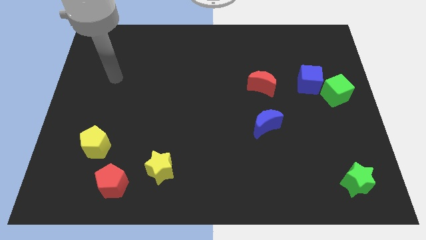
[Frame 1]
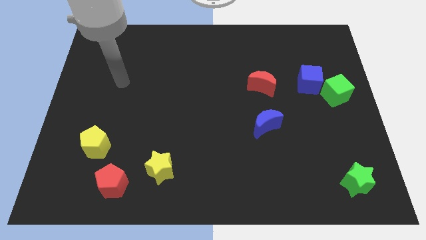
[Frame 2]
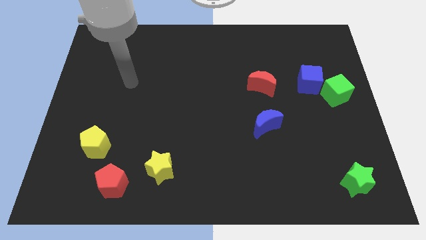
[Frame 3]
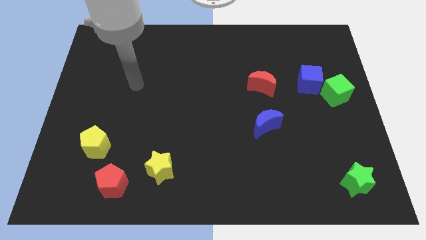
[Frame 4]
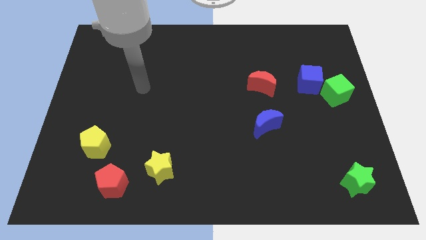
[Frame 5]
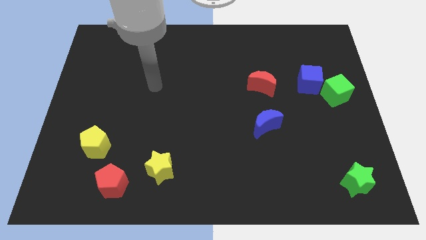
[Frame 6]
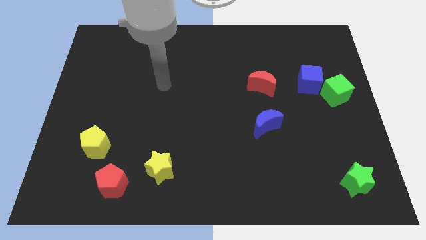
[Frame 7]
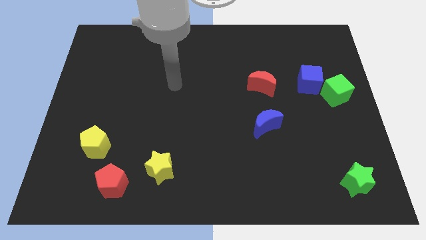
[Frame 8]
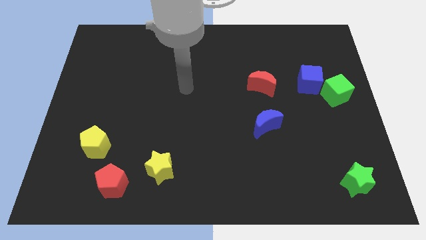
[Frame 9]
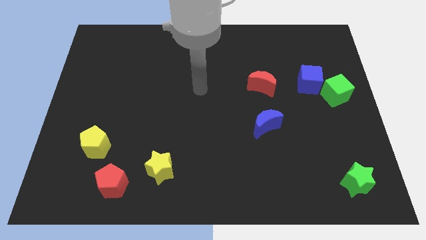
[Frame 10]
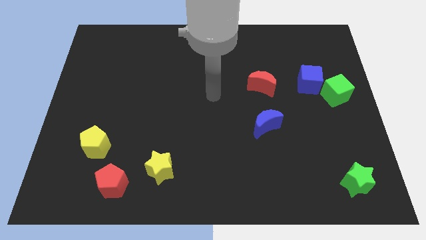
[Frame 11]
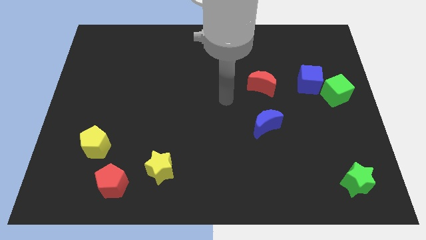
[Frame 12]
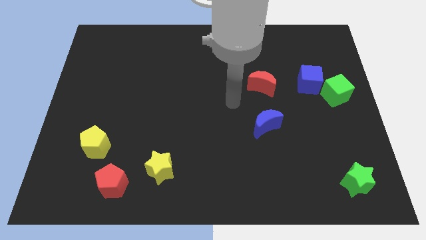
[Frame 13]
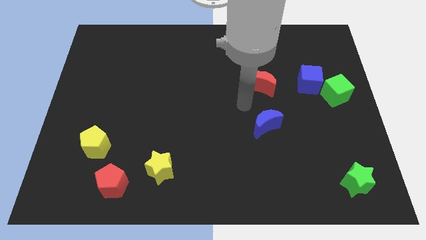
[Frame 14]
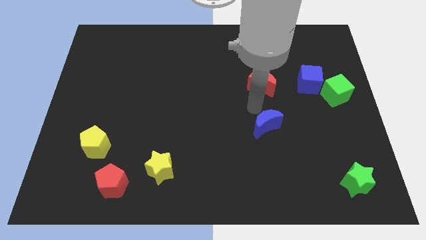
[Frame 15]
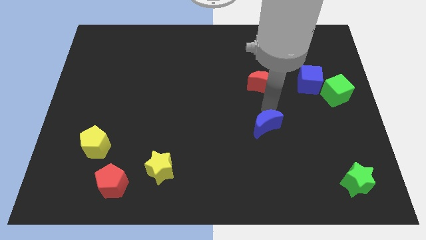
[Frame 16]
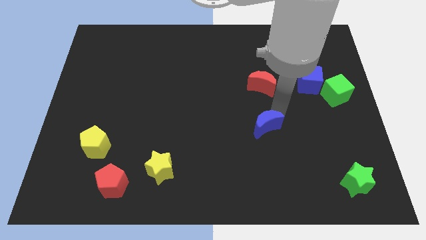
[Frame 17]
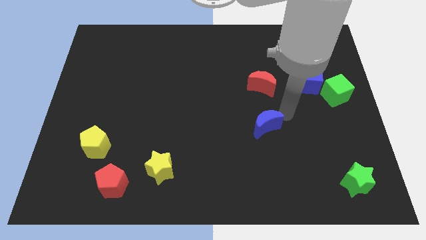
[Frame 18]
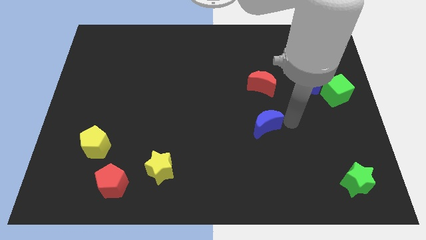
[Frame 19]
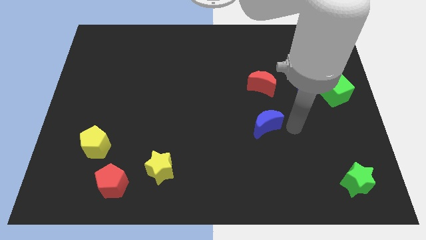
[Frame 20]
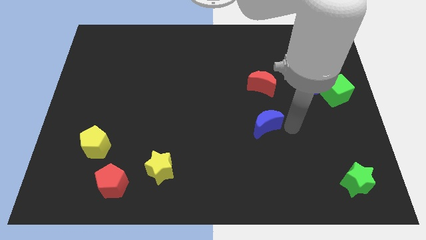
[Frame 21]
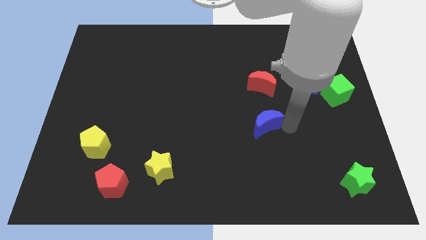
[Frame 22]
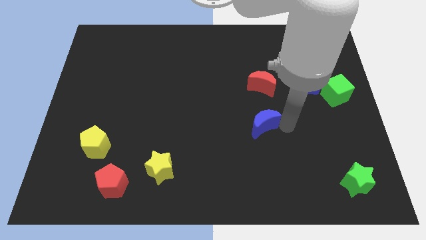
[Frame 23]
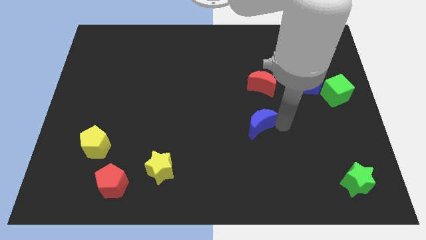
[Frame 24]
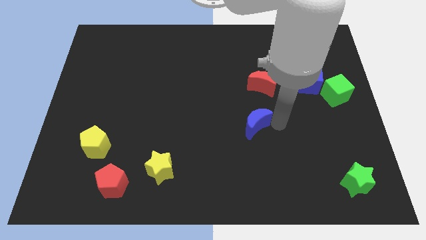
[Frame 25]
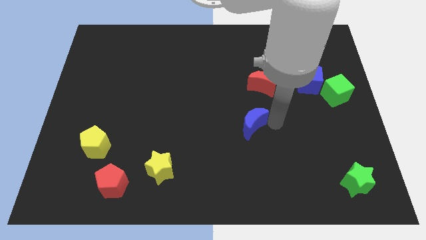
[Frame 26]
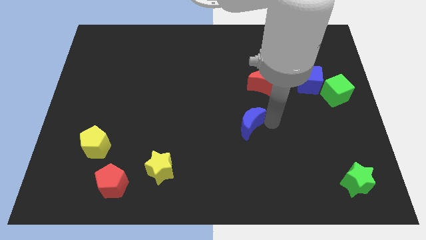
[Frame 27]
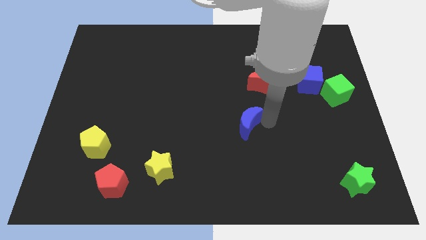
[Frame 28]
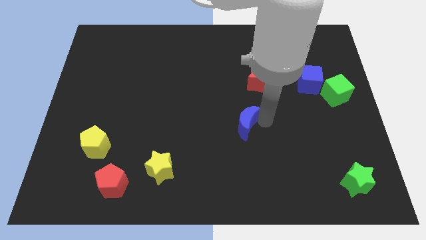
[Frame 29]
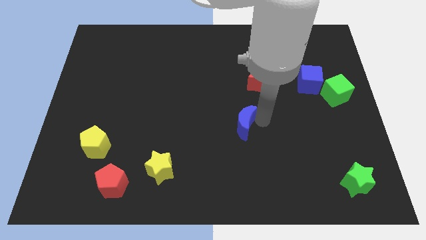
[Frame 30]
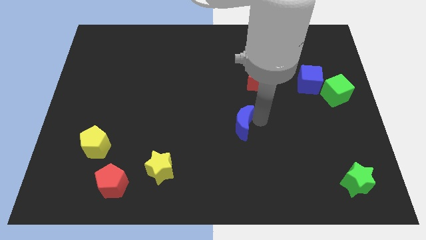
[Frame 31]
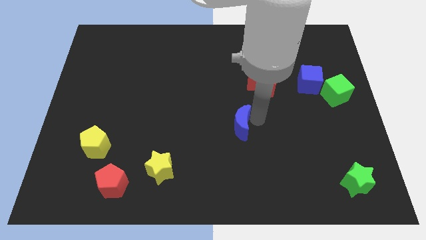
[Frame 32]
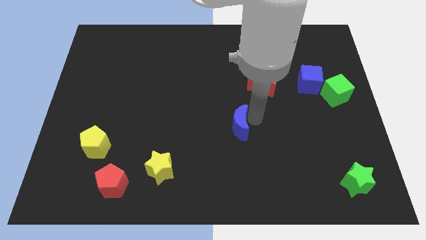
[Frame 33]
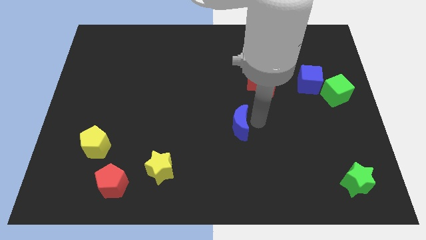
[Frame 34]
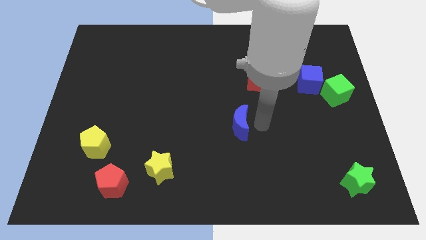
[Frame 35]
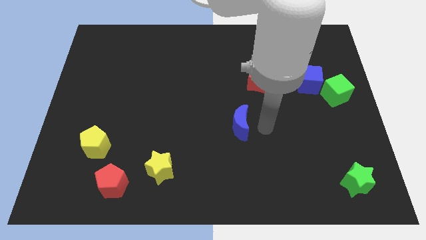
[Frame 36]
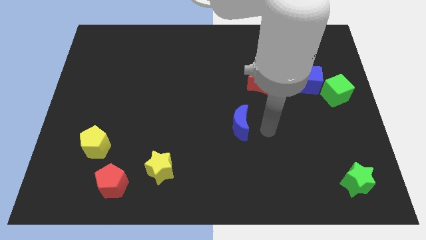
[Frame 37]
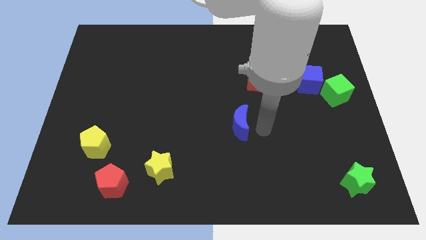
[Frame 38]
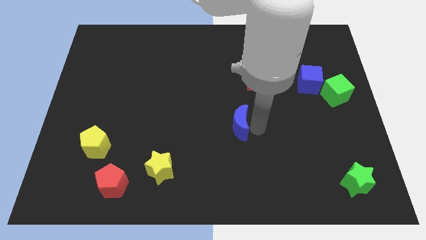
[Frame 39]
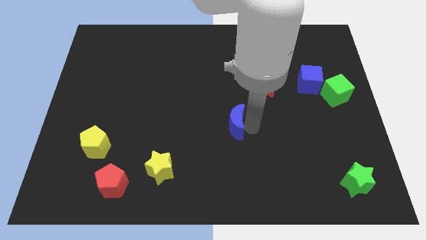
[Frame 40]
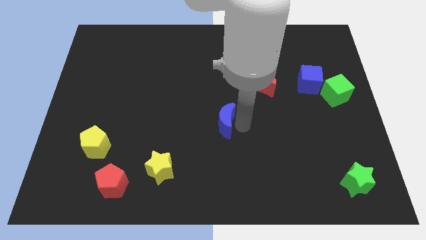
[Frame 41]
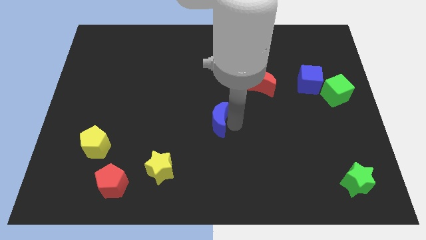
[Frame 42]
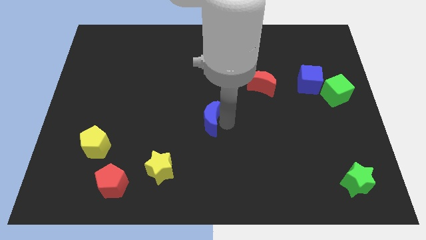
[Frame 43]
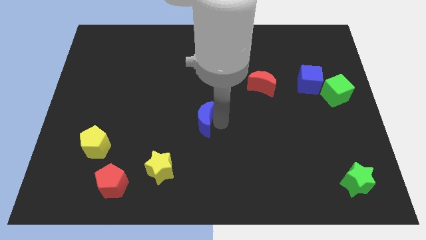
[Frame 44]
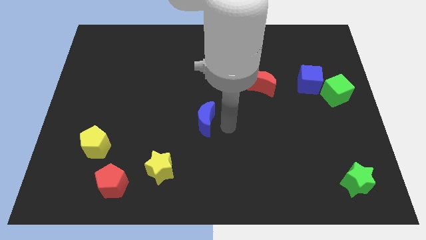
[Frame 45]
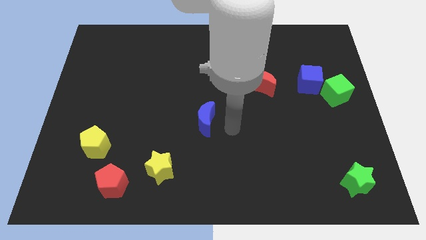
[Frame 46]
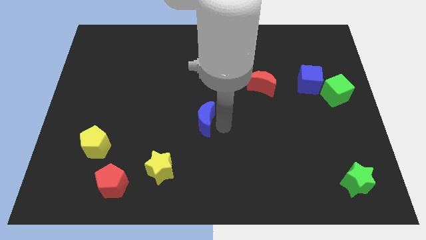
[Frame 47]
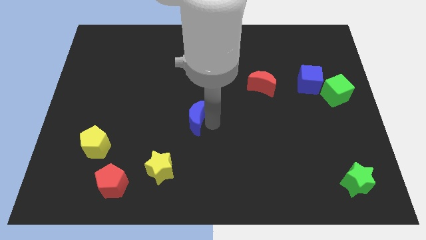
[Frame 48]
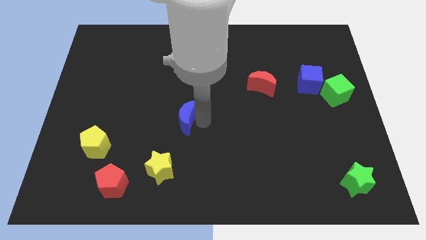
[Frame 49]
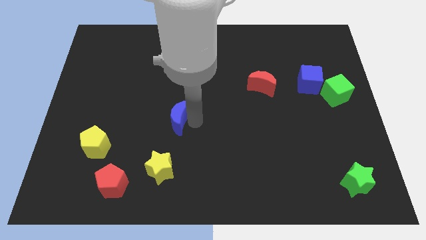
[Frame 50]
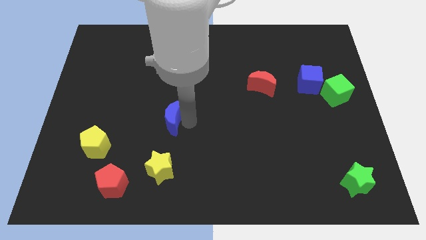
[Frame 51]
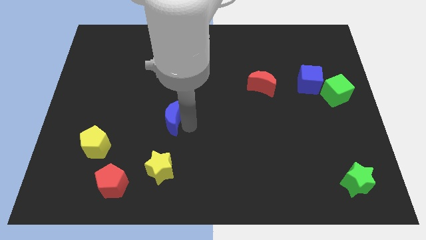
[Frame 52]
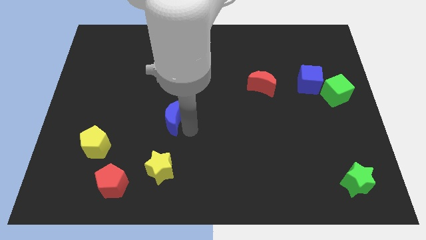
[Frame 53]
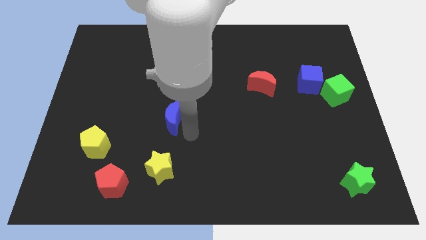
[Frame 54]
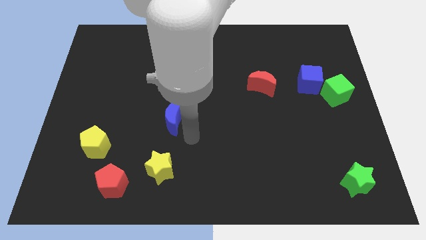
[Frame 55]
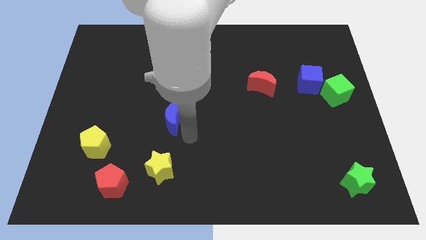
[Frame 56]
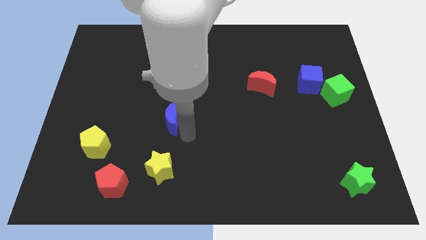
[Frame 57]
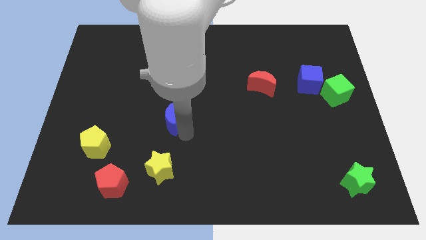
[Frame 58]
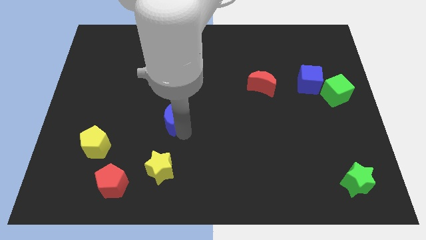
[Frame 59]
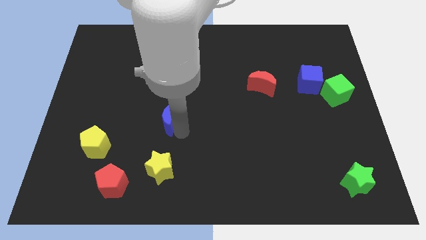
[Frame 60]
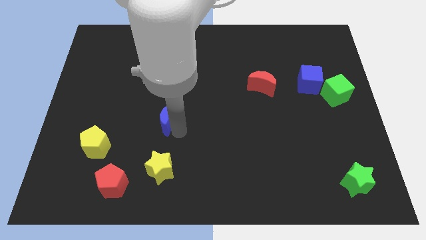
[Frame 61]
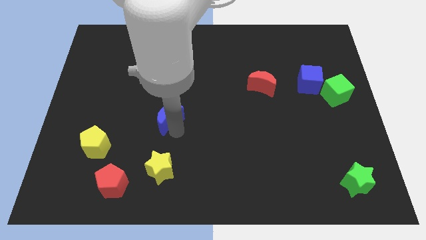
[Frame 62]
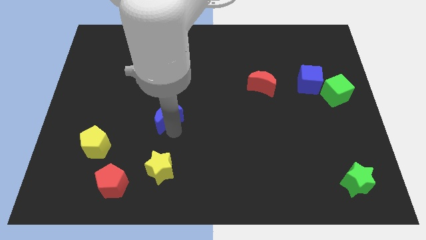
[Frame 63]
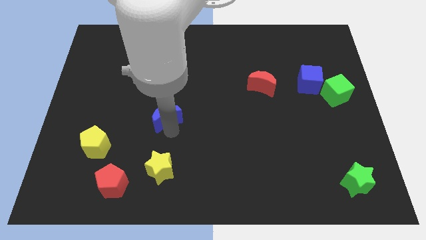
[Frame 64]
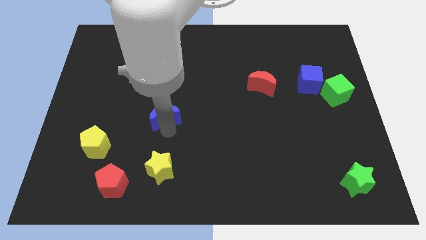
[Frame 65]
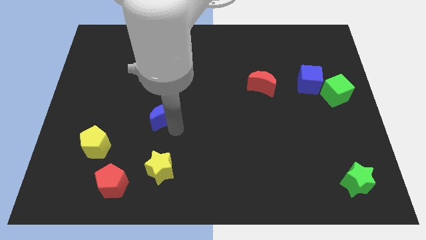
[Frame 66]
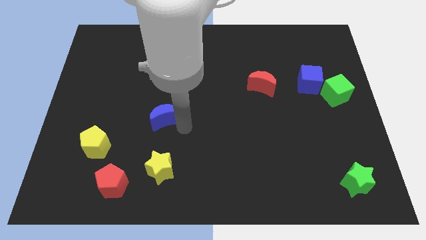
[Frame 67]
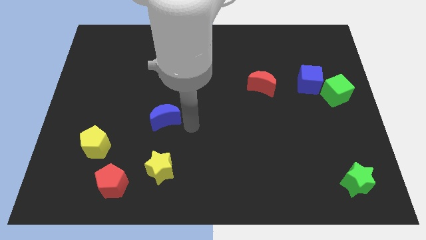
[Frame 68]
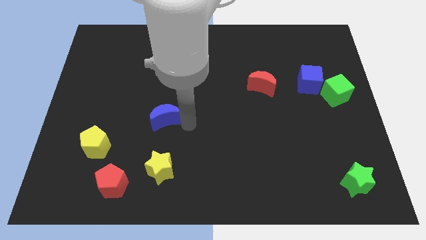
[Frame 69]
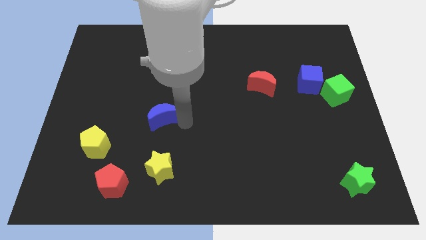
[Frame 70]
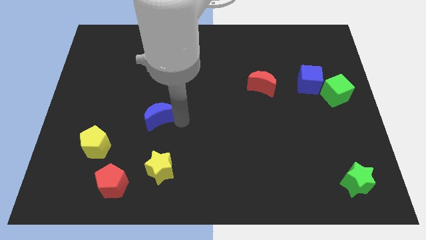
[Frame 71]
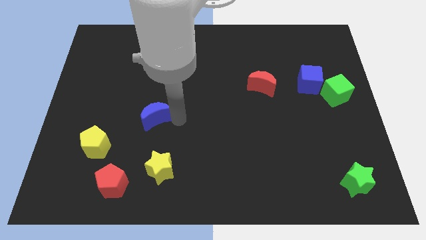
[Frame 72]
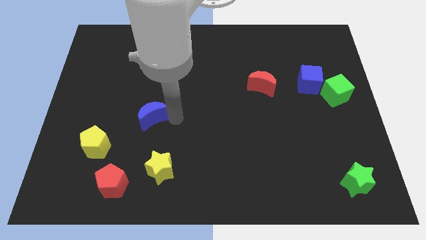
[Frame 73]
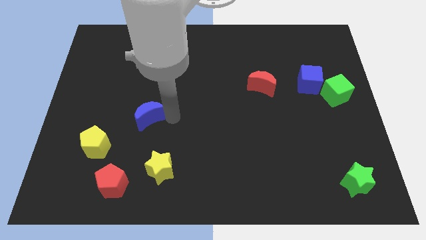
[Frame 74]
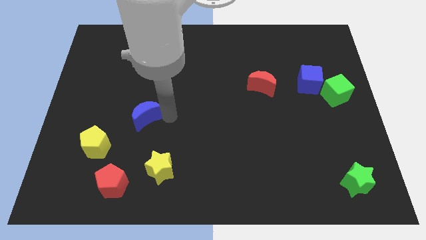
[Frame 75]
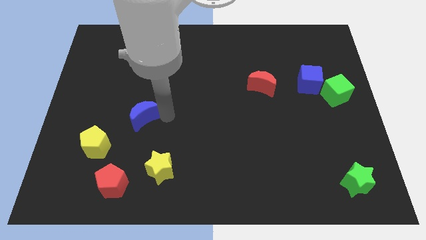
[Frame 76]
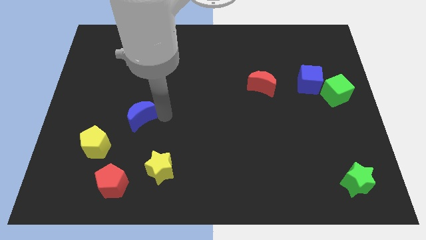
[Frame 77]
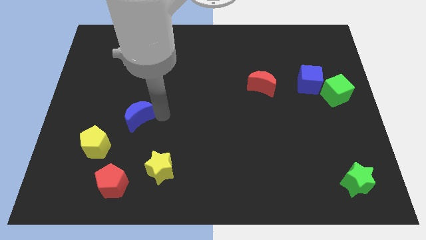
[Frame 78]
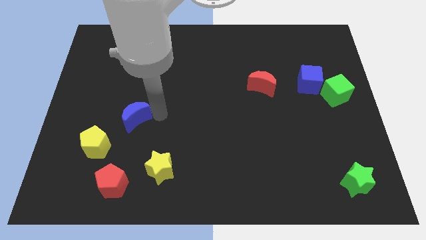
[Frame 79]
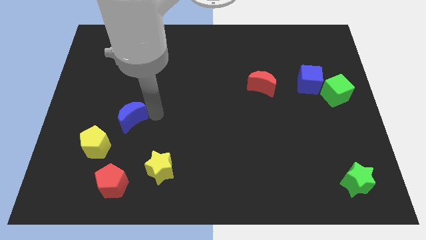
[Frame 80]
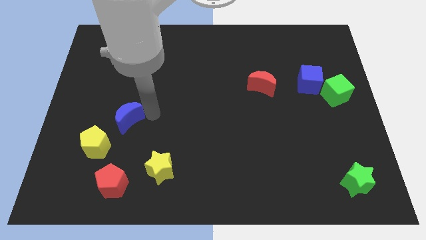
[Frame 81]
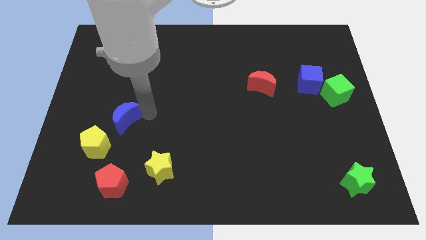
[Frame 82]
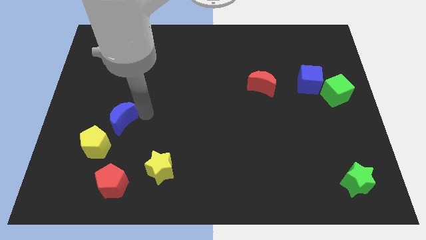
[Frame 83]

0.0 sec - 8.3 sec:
push the blue moon to the top side of the yellow pentagon
